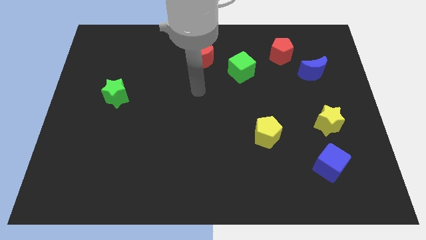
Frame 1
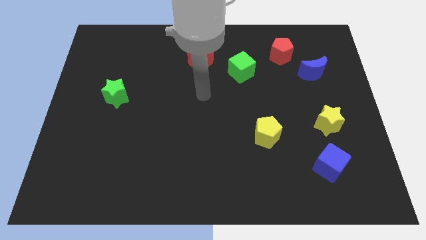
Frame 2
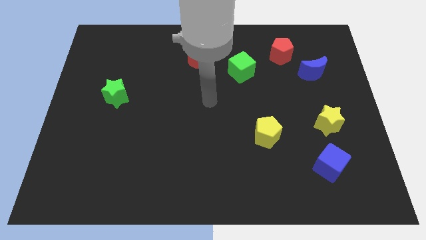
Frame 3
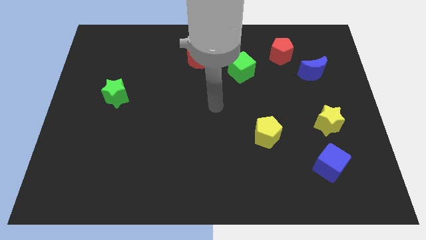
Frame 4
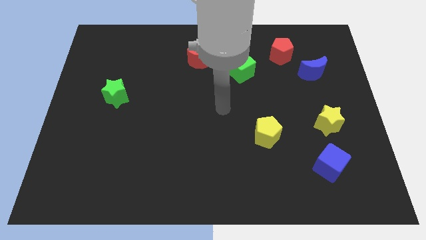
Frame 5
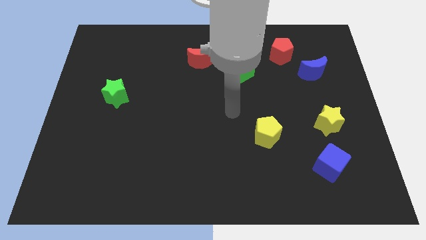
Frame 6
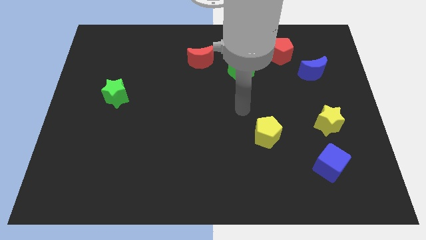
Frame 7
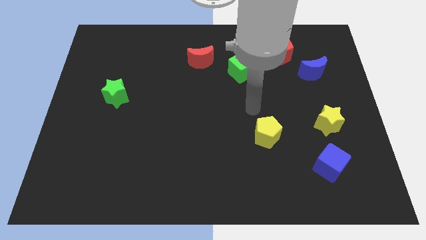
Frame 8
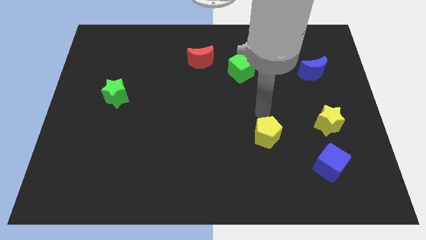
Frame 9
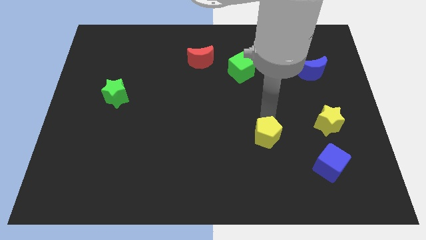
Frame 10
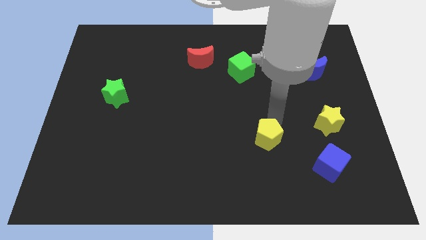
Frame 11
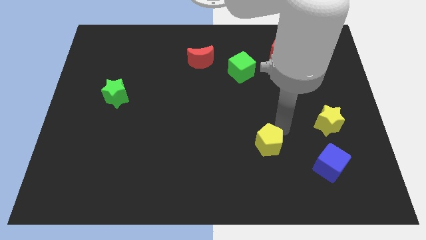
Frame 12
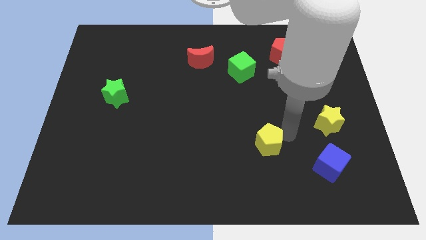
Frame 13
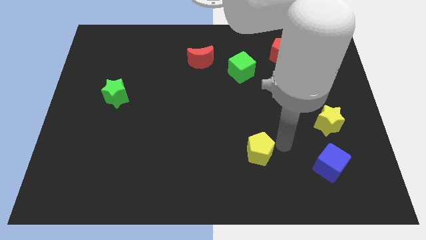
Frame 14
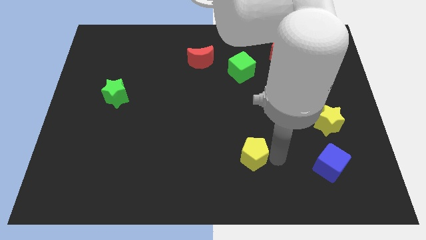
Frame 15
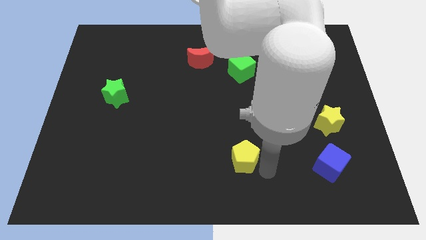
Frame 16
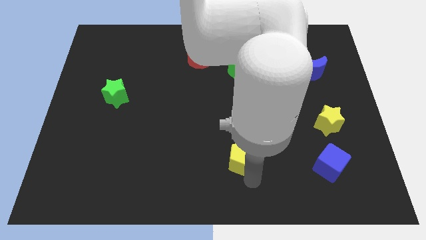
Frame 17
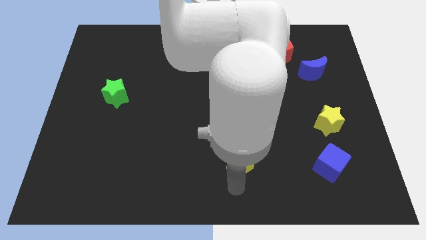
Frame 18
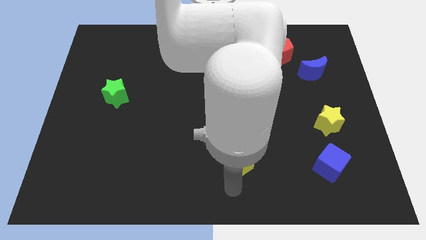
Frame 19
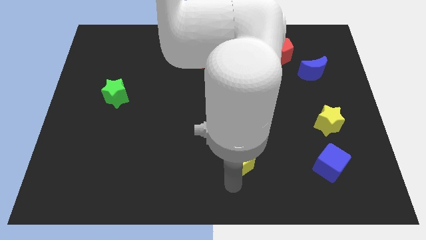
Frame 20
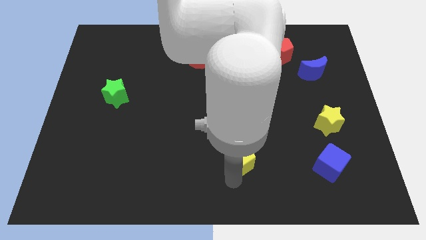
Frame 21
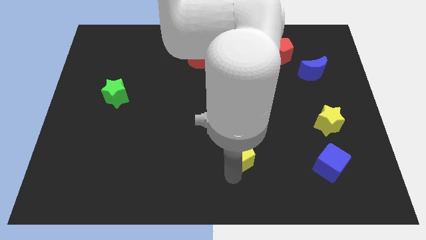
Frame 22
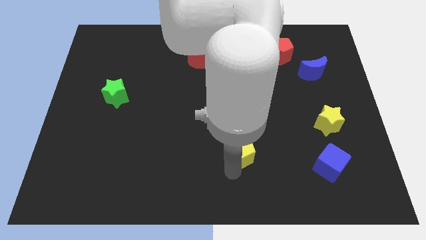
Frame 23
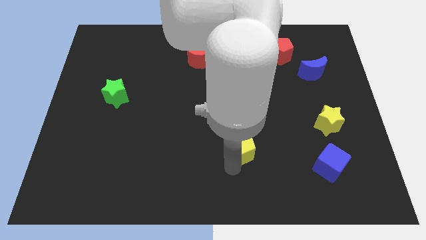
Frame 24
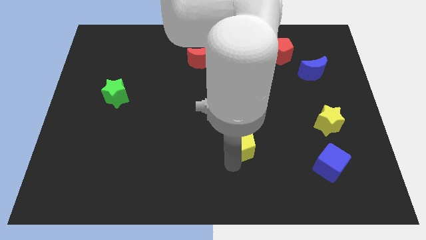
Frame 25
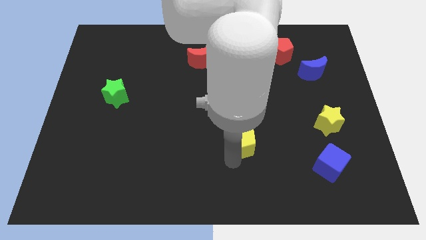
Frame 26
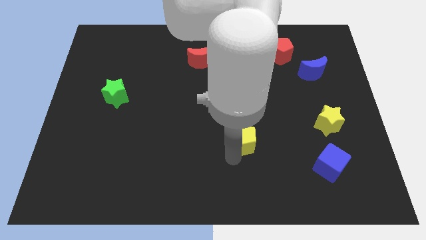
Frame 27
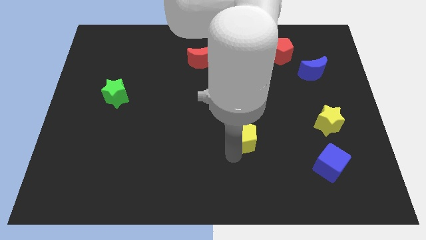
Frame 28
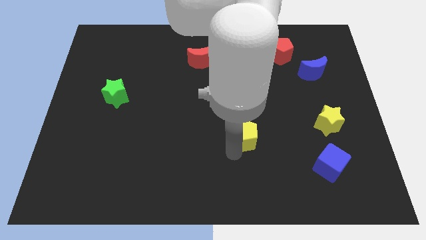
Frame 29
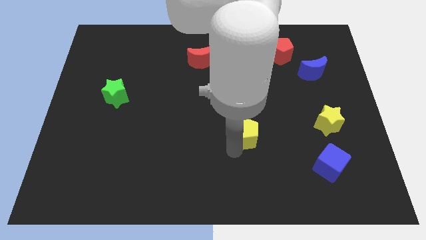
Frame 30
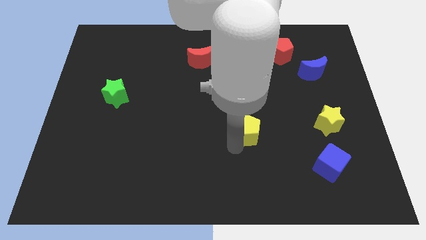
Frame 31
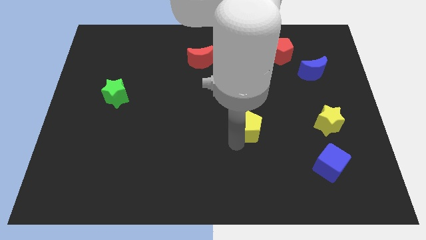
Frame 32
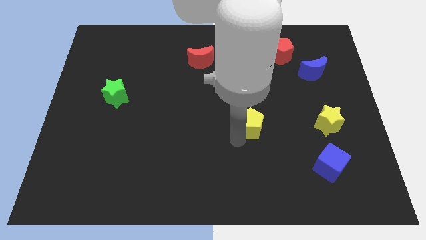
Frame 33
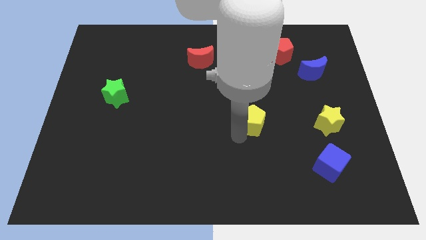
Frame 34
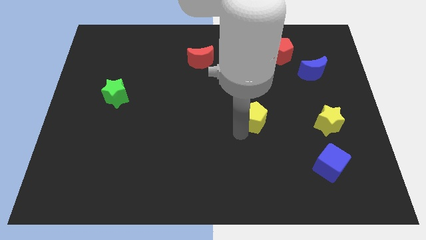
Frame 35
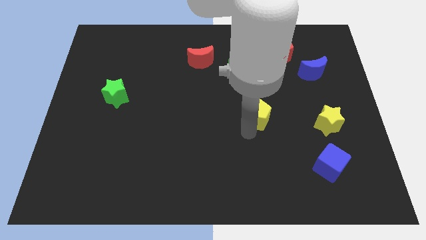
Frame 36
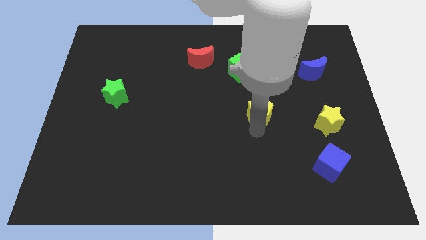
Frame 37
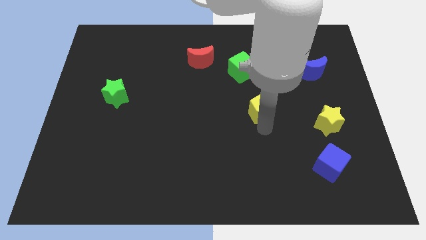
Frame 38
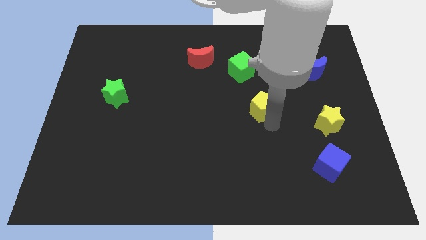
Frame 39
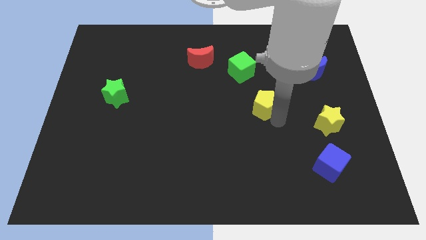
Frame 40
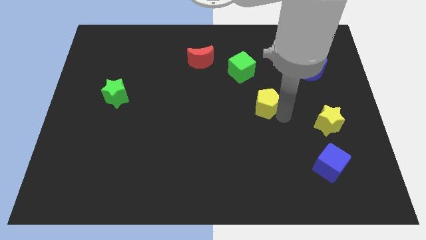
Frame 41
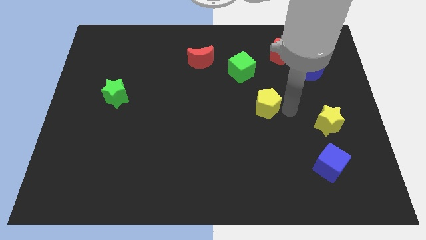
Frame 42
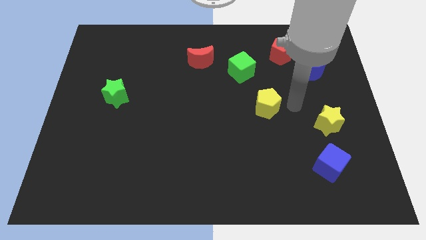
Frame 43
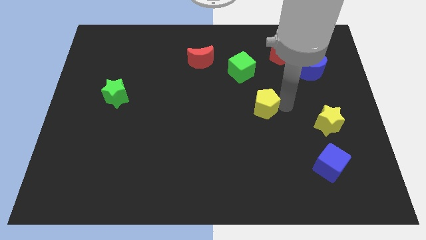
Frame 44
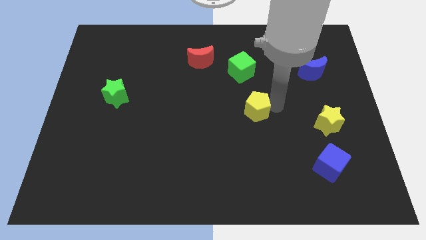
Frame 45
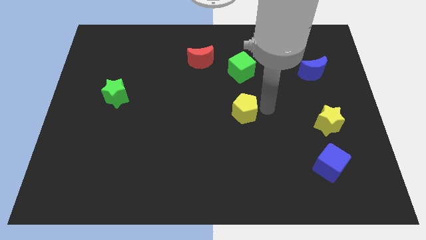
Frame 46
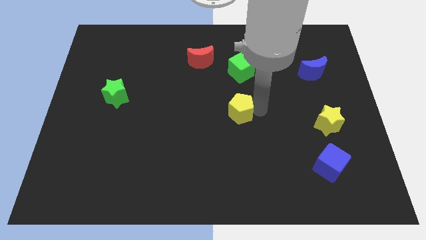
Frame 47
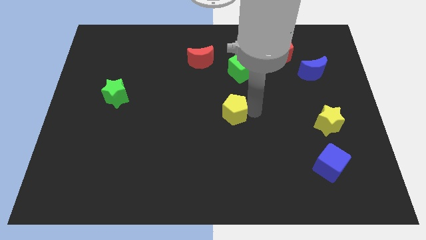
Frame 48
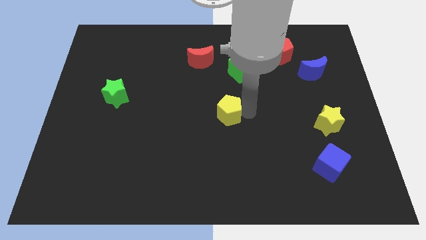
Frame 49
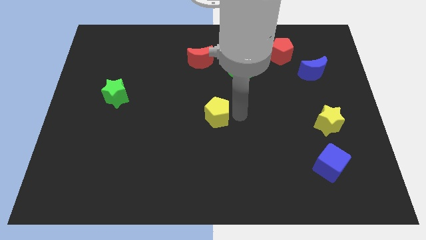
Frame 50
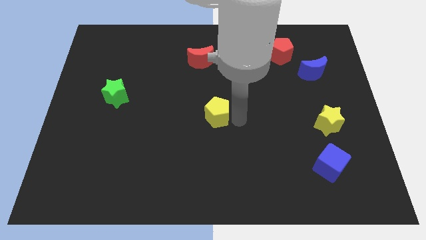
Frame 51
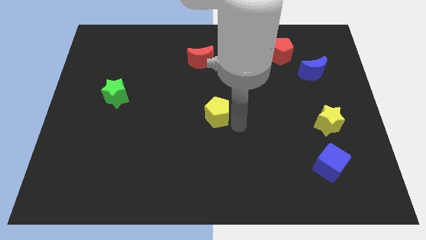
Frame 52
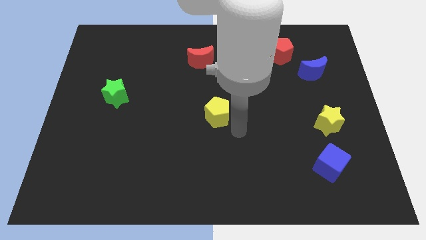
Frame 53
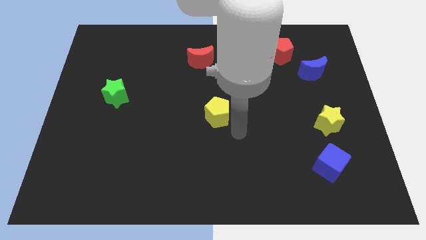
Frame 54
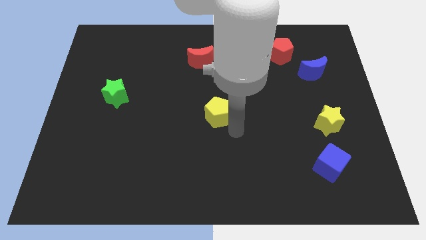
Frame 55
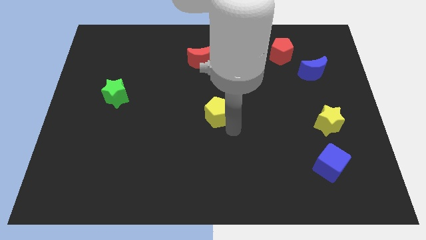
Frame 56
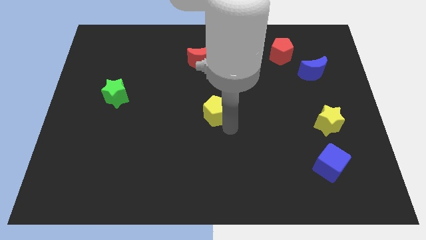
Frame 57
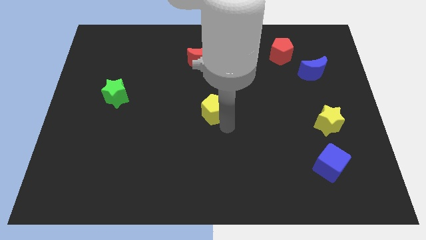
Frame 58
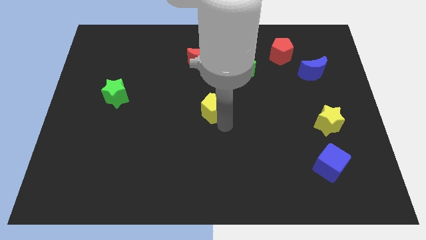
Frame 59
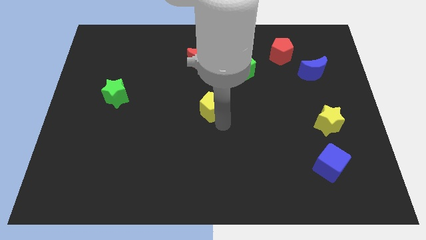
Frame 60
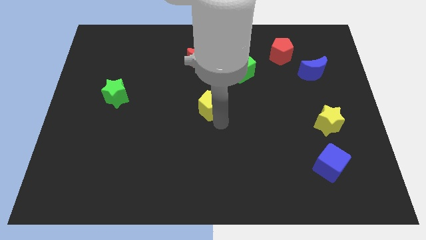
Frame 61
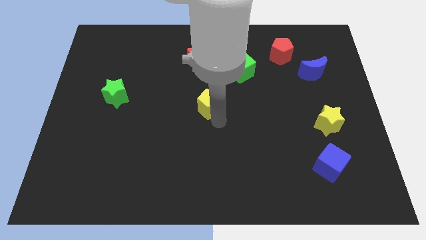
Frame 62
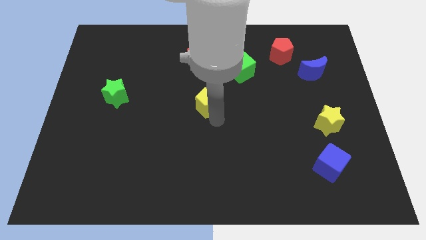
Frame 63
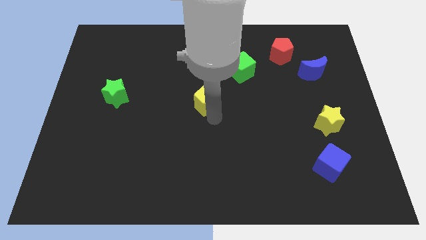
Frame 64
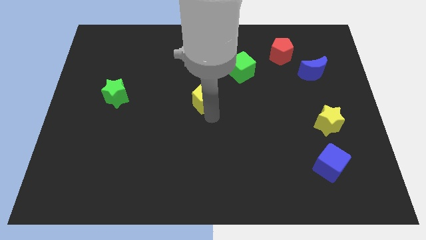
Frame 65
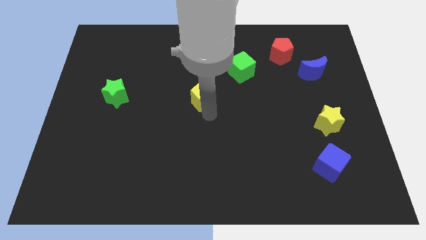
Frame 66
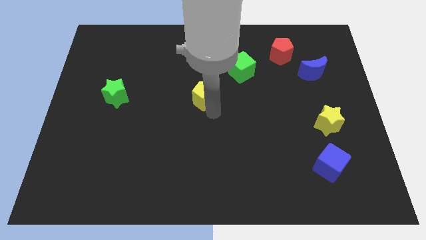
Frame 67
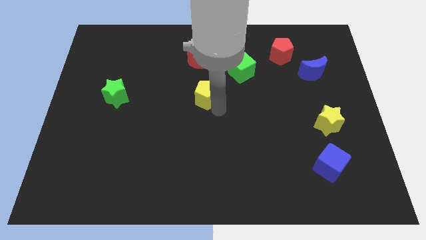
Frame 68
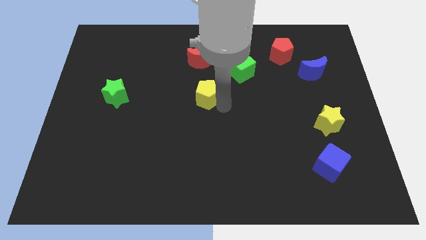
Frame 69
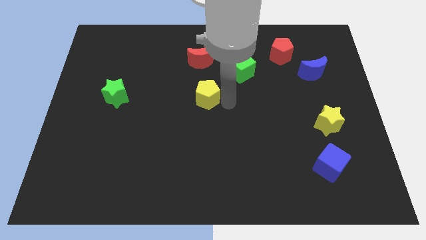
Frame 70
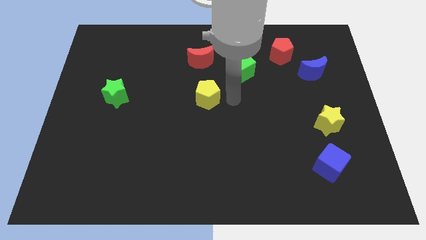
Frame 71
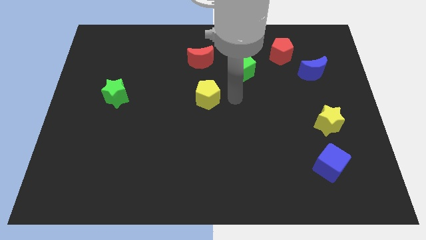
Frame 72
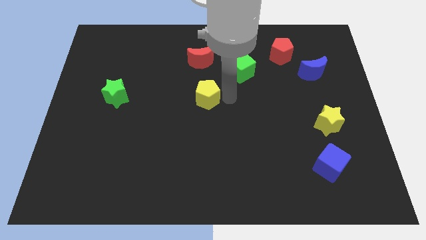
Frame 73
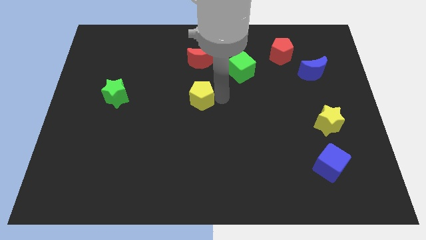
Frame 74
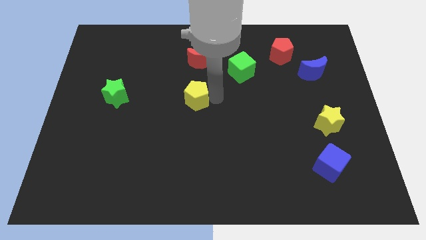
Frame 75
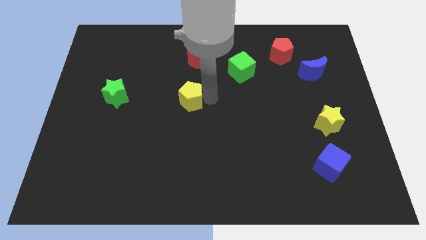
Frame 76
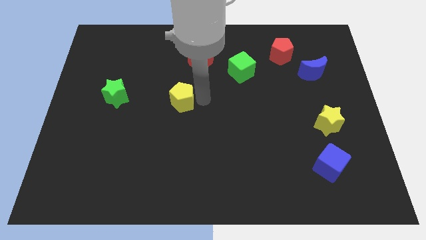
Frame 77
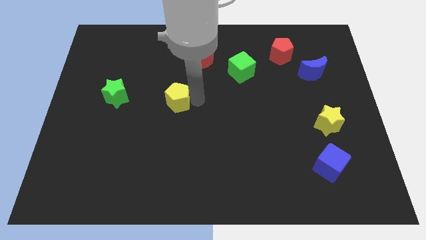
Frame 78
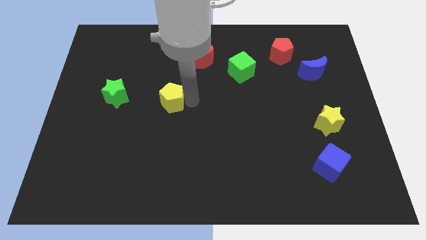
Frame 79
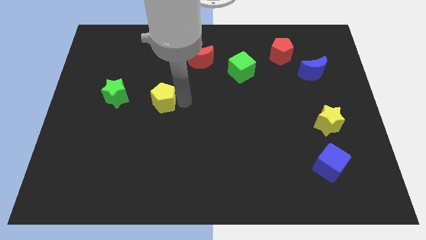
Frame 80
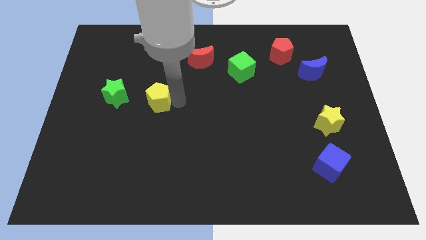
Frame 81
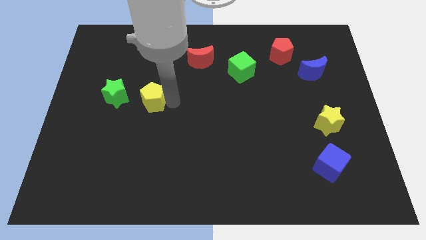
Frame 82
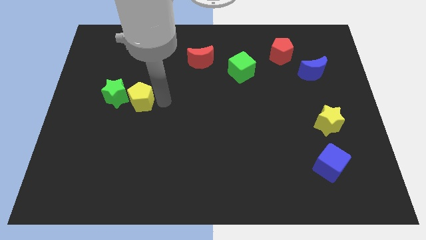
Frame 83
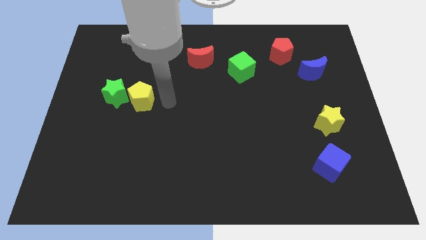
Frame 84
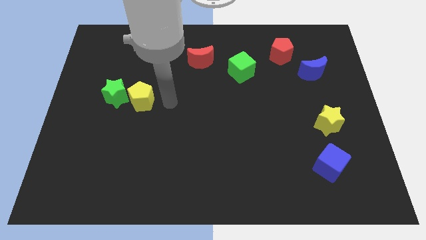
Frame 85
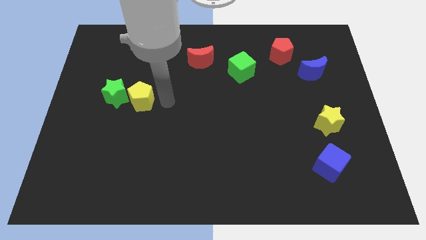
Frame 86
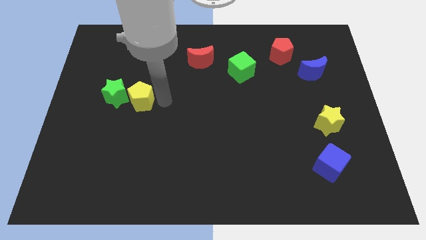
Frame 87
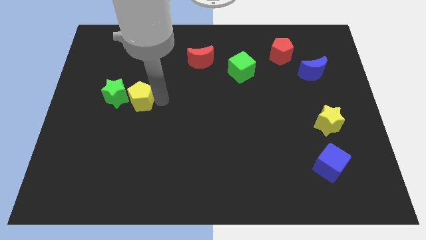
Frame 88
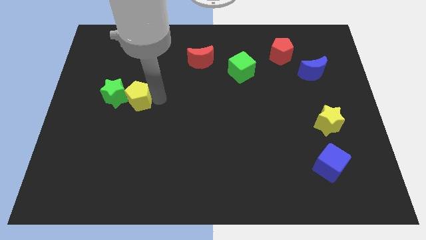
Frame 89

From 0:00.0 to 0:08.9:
slide the yellow pentagon towards the green star
